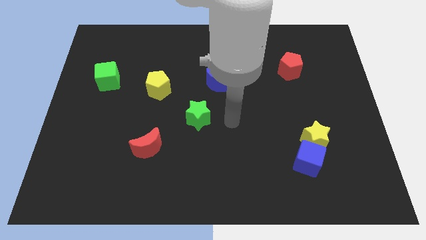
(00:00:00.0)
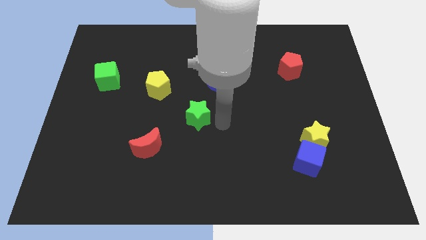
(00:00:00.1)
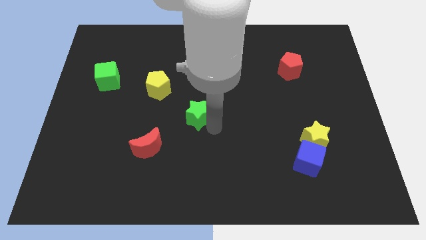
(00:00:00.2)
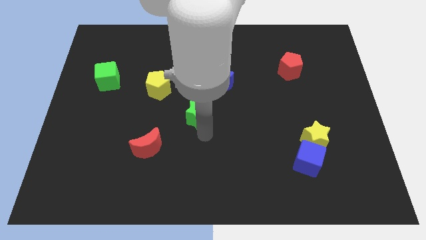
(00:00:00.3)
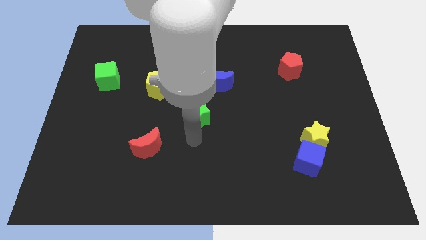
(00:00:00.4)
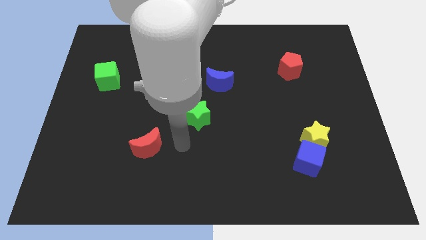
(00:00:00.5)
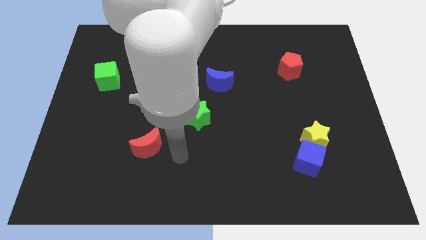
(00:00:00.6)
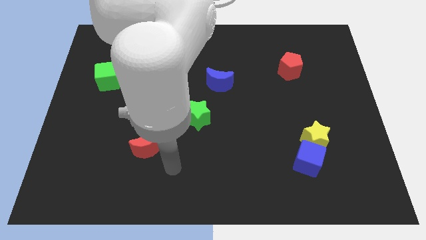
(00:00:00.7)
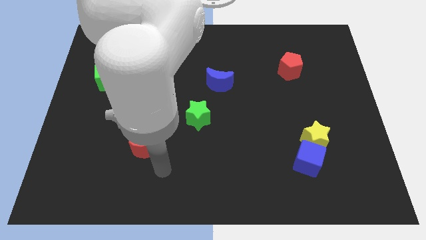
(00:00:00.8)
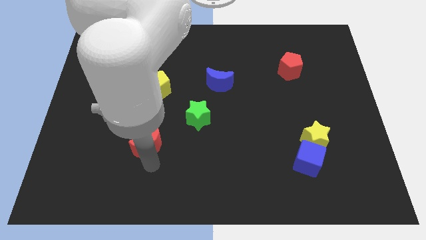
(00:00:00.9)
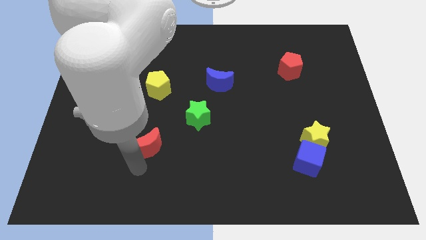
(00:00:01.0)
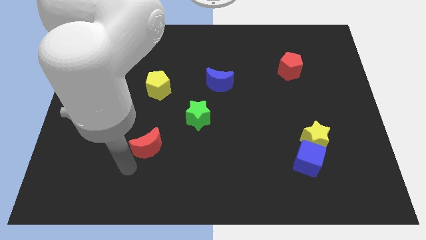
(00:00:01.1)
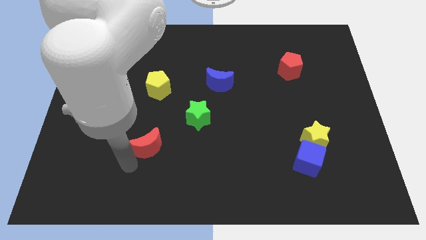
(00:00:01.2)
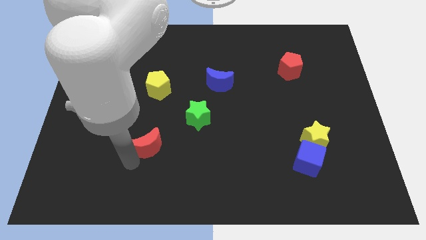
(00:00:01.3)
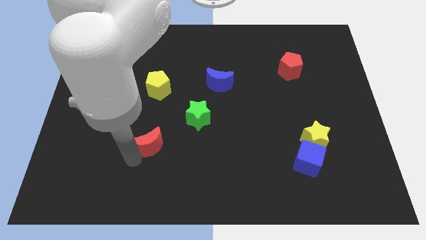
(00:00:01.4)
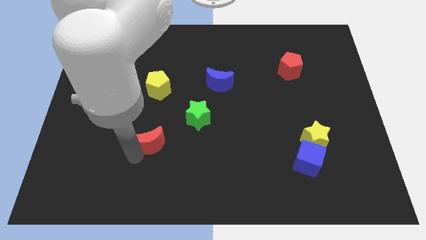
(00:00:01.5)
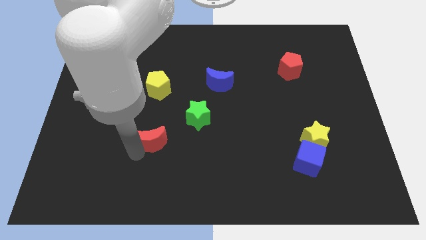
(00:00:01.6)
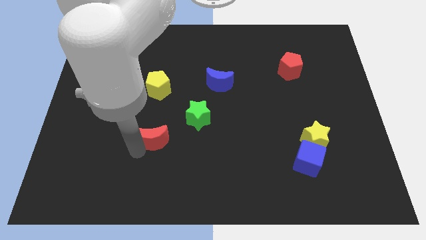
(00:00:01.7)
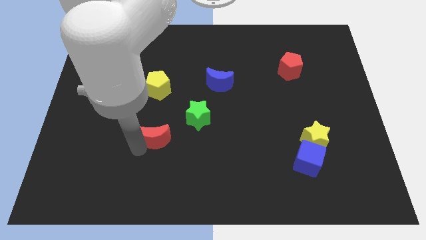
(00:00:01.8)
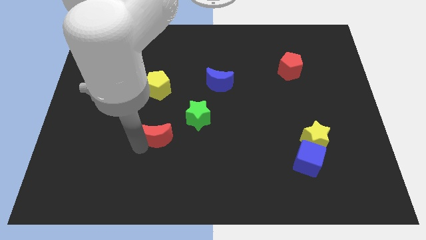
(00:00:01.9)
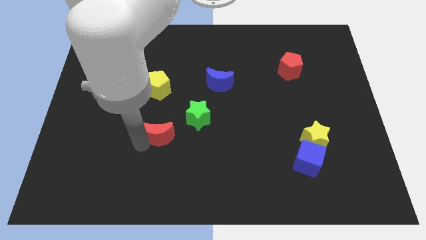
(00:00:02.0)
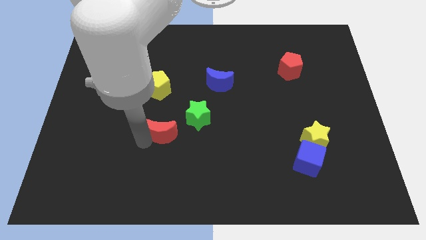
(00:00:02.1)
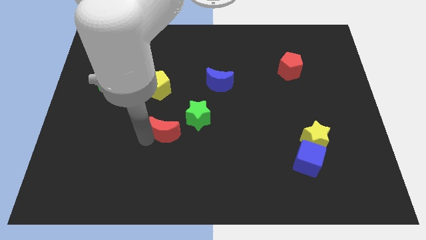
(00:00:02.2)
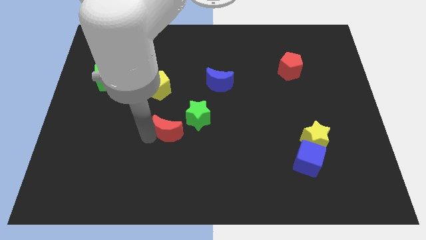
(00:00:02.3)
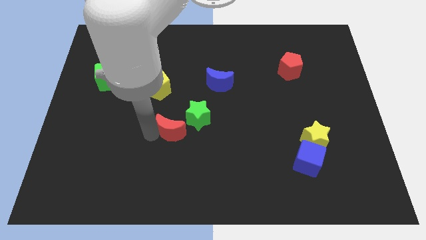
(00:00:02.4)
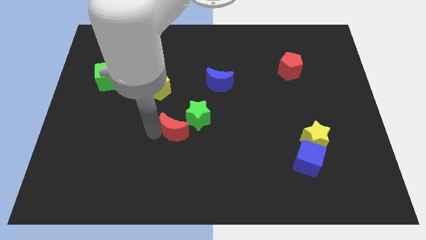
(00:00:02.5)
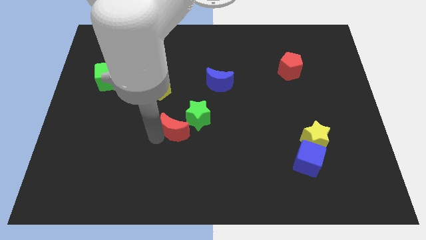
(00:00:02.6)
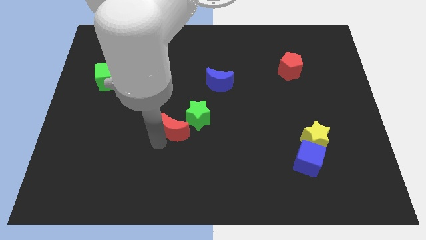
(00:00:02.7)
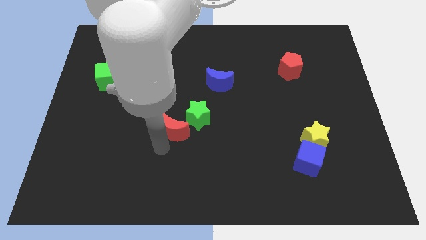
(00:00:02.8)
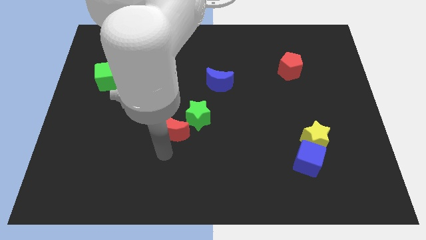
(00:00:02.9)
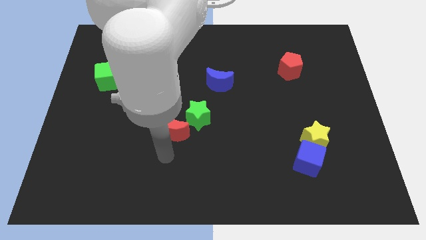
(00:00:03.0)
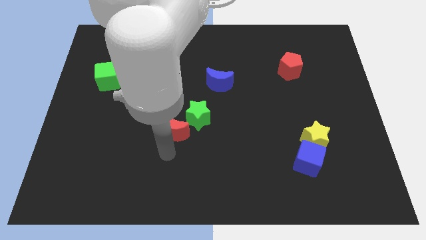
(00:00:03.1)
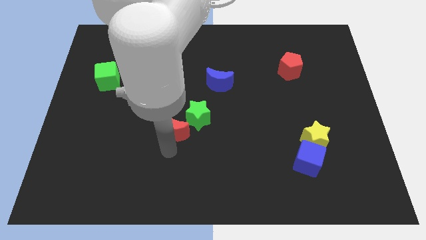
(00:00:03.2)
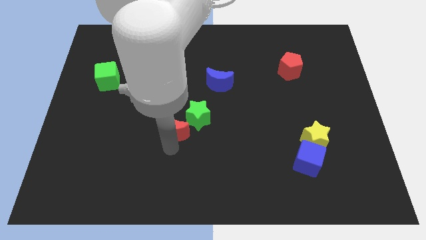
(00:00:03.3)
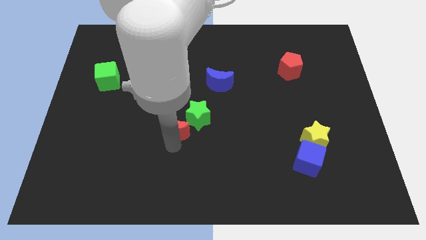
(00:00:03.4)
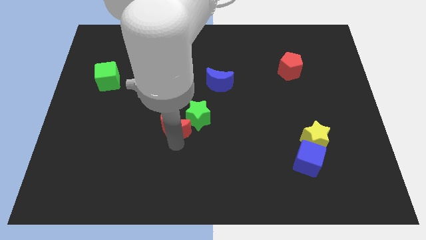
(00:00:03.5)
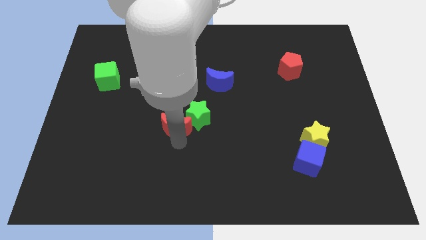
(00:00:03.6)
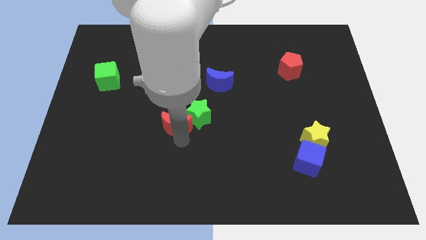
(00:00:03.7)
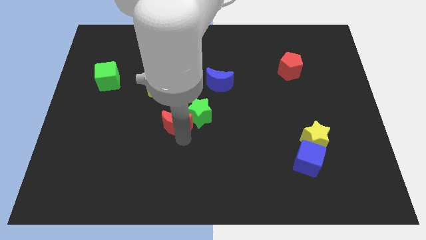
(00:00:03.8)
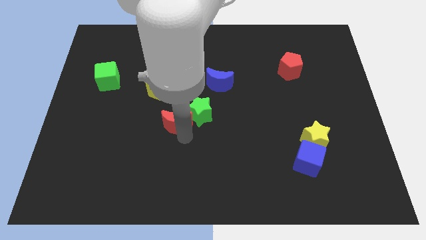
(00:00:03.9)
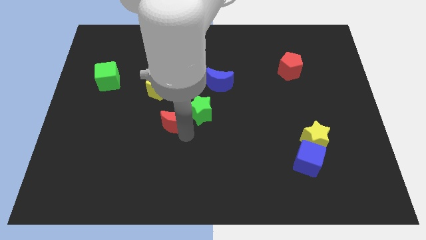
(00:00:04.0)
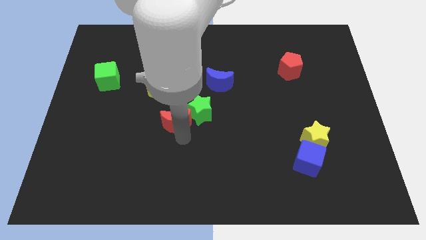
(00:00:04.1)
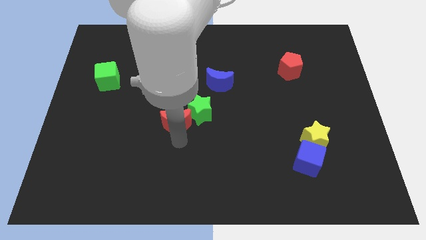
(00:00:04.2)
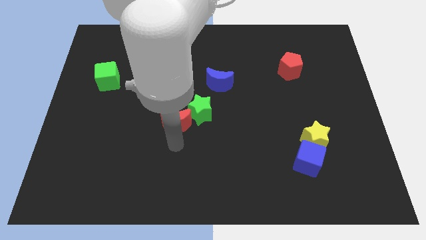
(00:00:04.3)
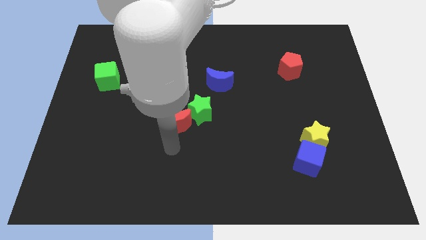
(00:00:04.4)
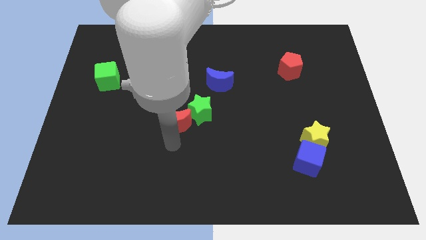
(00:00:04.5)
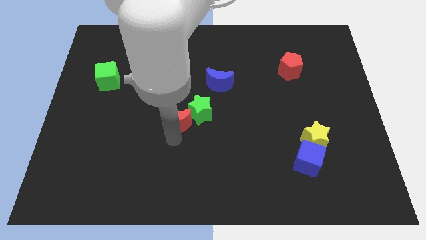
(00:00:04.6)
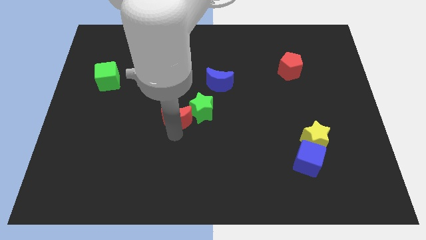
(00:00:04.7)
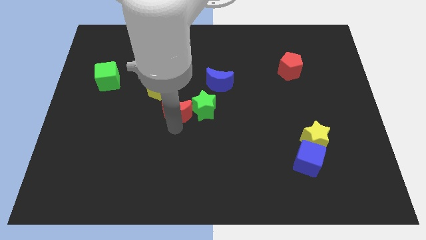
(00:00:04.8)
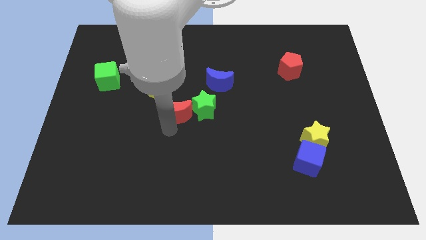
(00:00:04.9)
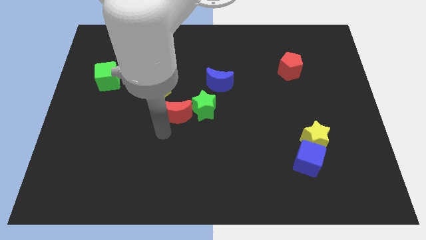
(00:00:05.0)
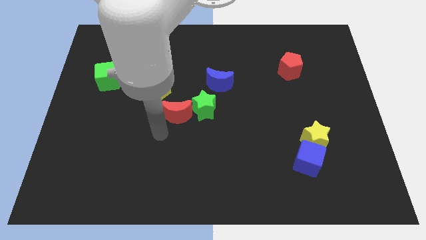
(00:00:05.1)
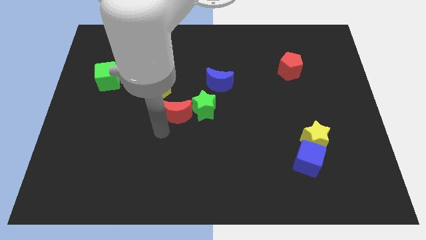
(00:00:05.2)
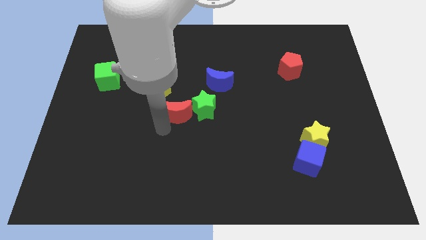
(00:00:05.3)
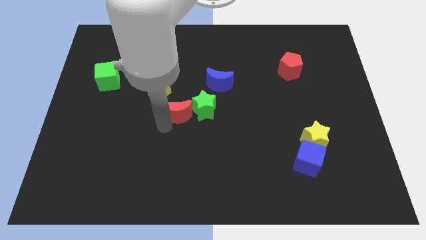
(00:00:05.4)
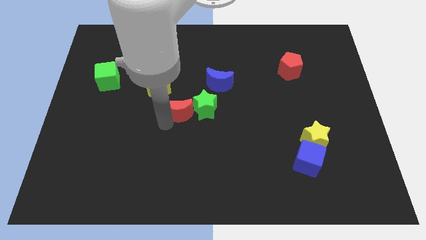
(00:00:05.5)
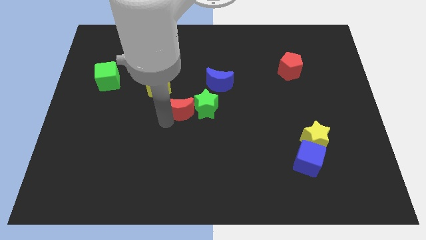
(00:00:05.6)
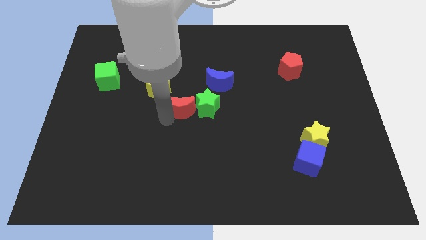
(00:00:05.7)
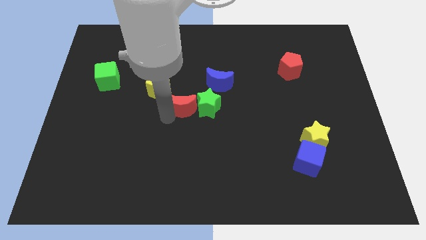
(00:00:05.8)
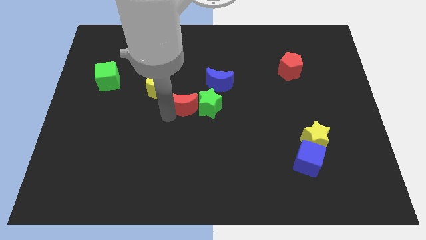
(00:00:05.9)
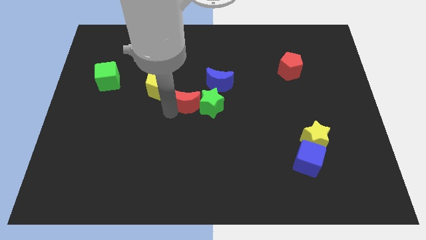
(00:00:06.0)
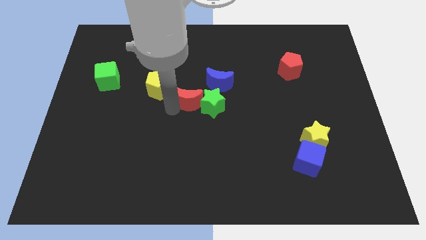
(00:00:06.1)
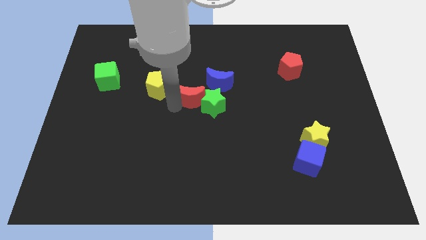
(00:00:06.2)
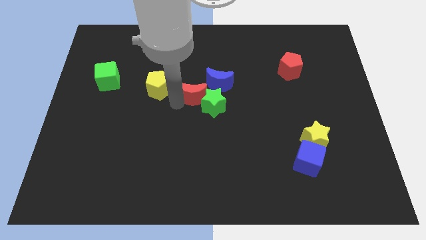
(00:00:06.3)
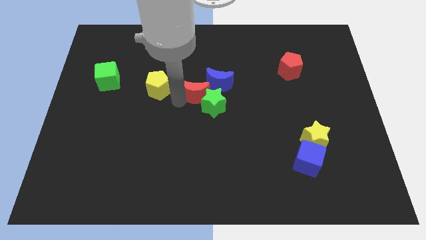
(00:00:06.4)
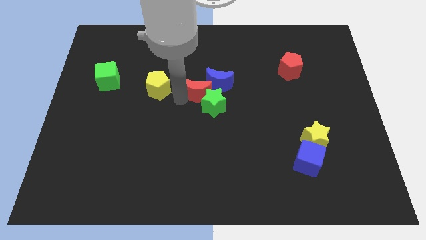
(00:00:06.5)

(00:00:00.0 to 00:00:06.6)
move the red moon to the blue moon
